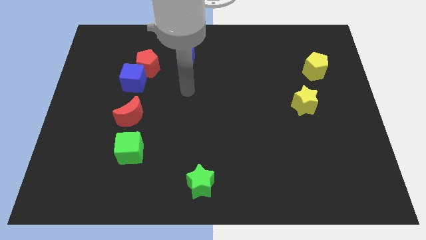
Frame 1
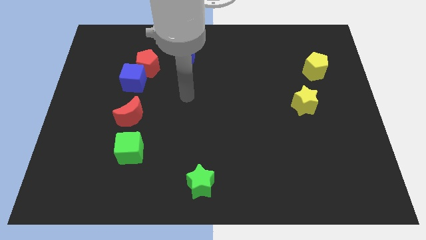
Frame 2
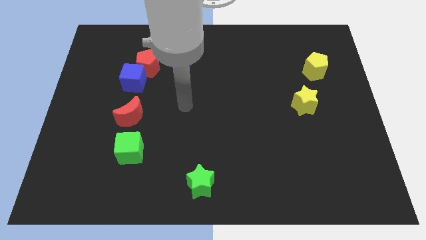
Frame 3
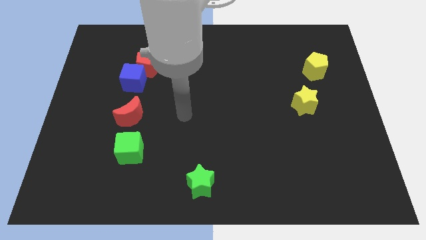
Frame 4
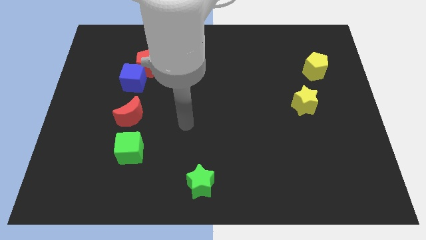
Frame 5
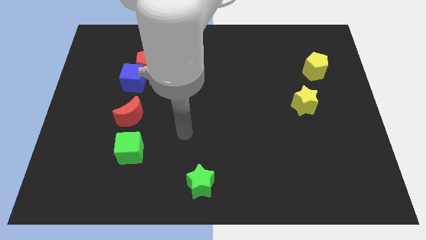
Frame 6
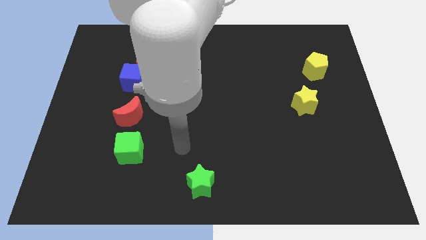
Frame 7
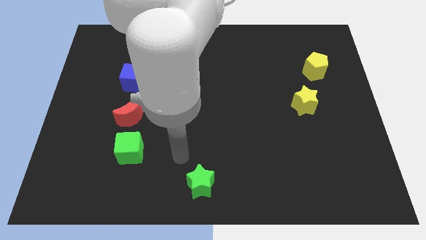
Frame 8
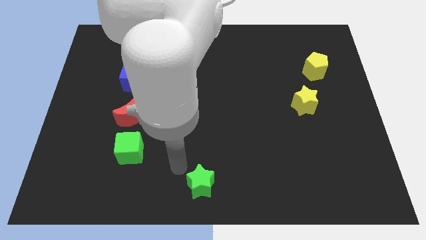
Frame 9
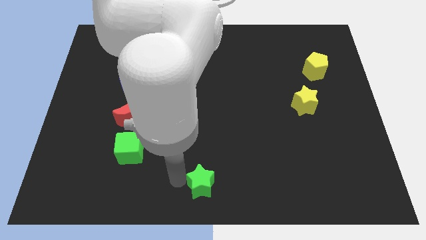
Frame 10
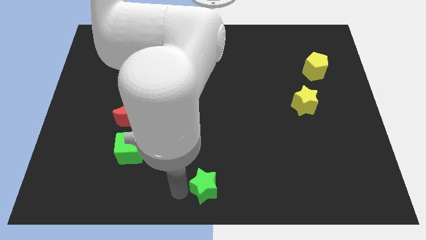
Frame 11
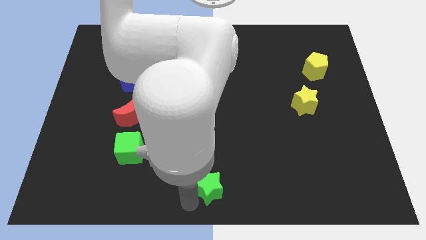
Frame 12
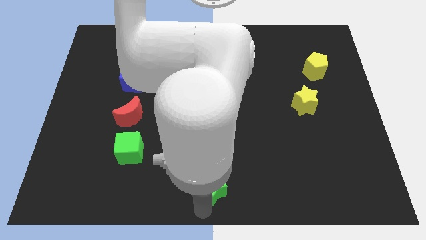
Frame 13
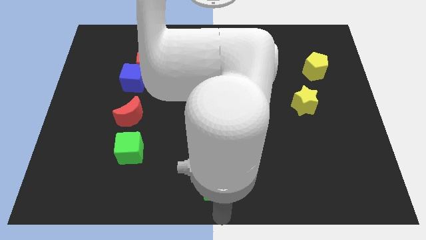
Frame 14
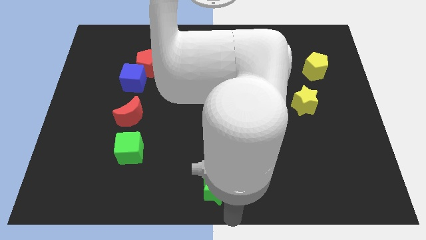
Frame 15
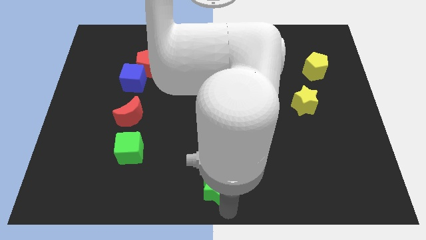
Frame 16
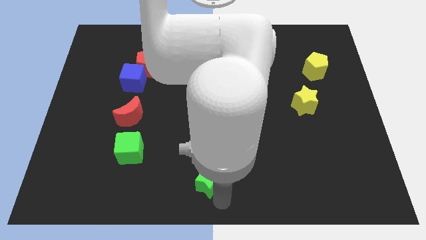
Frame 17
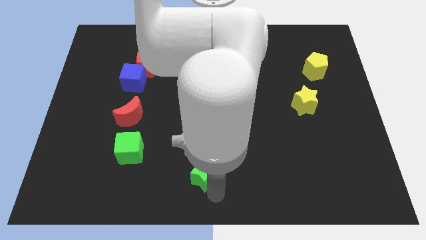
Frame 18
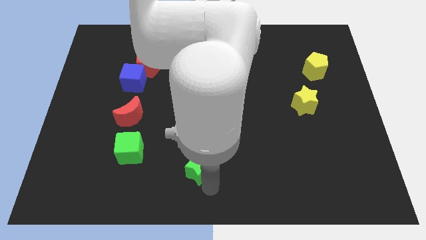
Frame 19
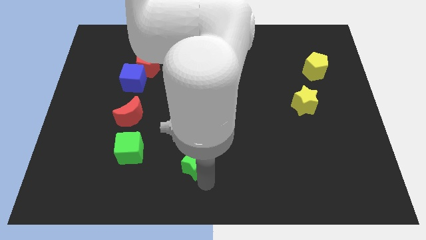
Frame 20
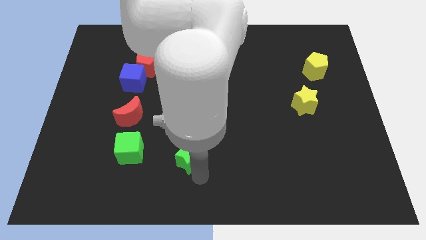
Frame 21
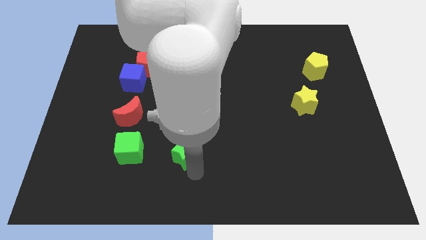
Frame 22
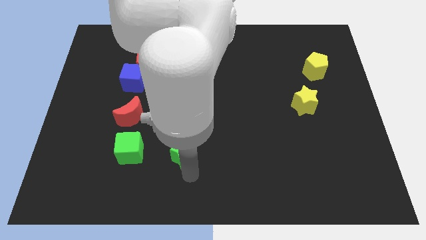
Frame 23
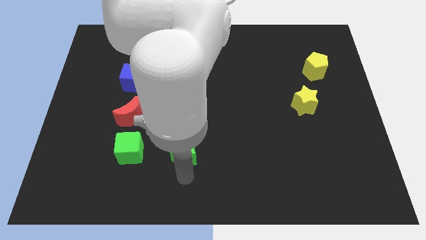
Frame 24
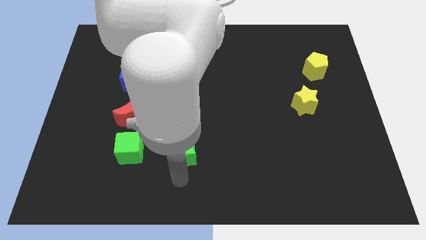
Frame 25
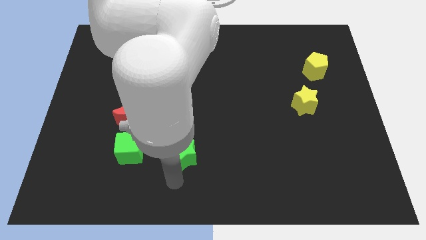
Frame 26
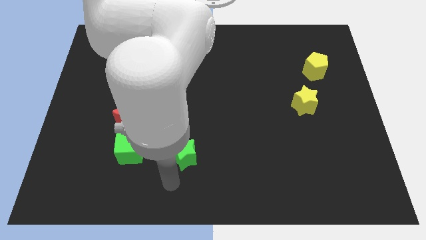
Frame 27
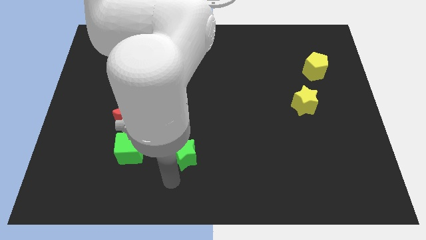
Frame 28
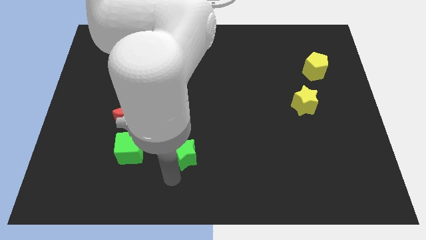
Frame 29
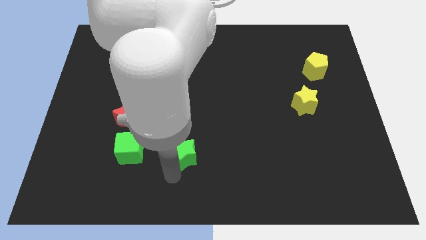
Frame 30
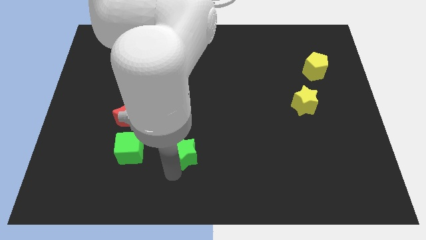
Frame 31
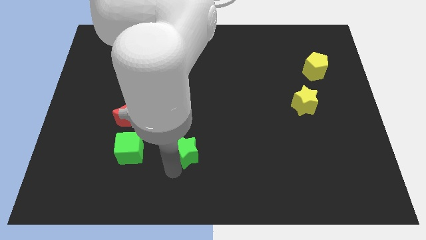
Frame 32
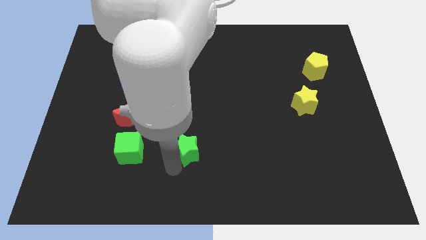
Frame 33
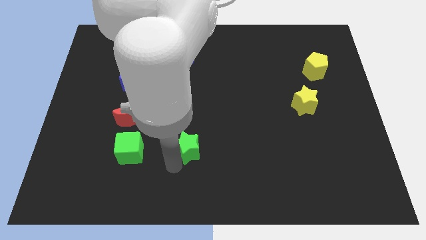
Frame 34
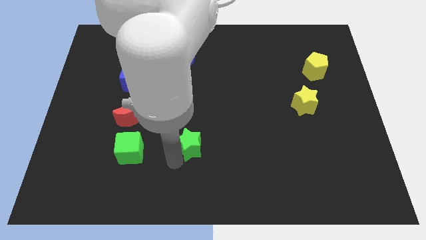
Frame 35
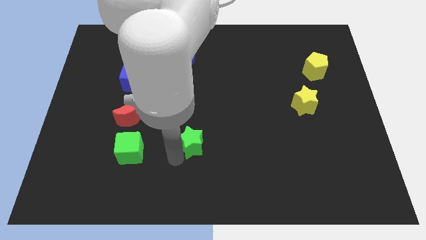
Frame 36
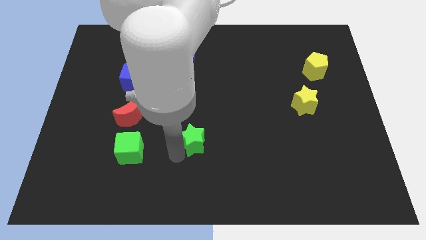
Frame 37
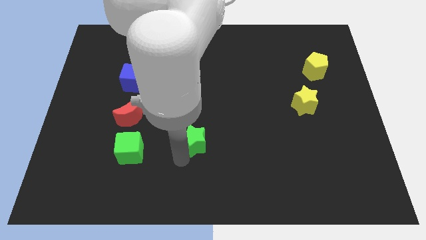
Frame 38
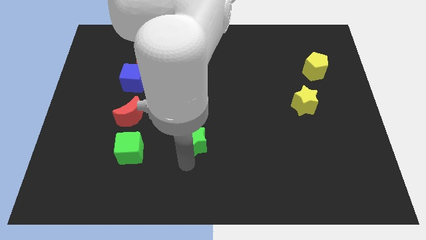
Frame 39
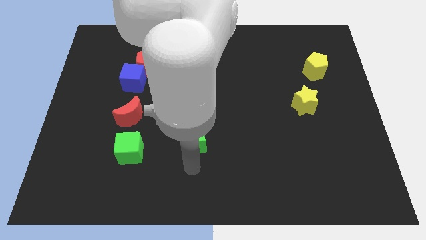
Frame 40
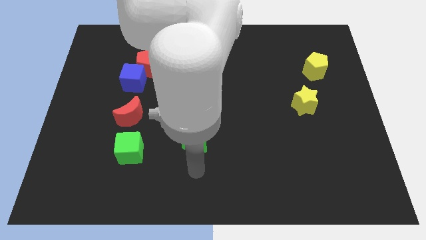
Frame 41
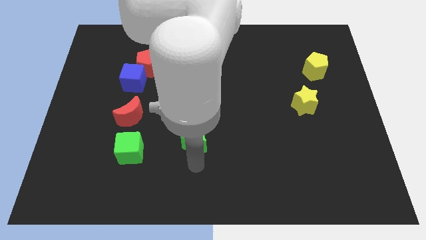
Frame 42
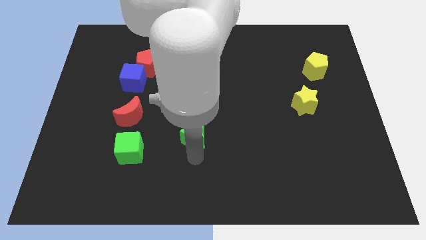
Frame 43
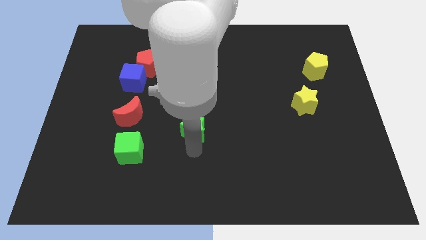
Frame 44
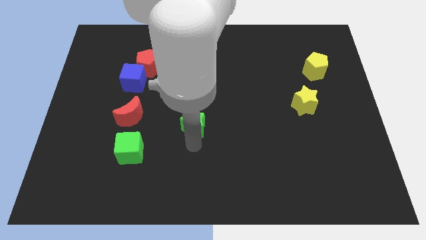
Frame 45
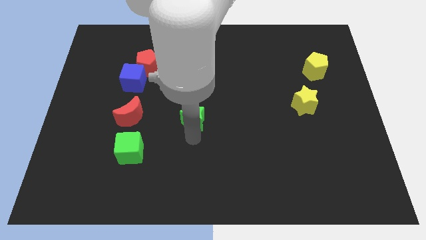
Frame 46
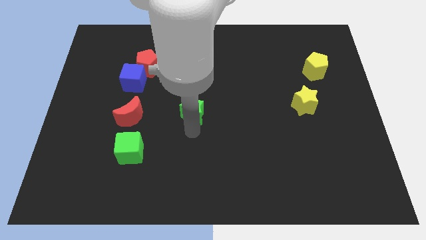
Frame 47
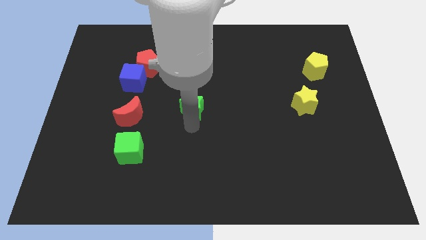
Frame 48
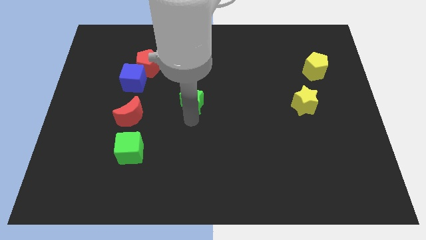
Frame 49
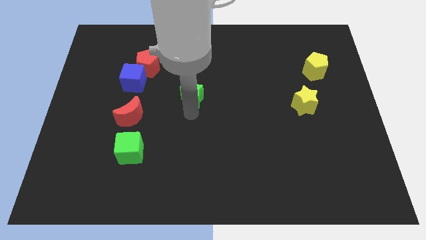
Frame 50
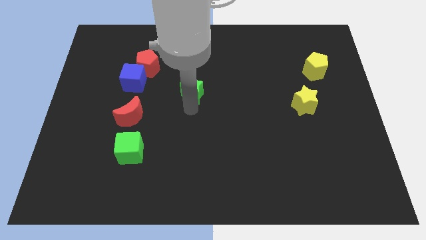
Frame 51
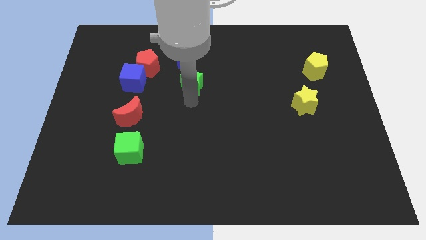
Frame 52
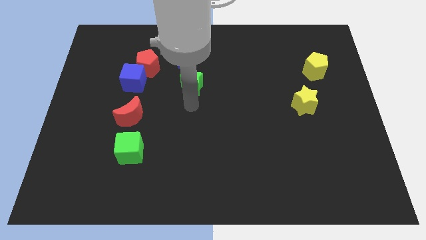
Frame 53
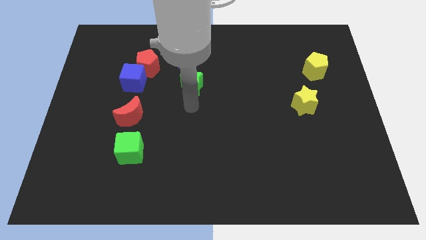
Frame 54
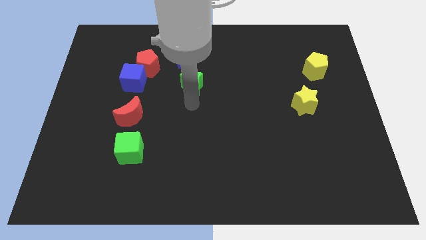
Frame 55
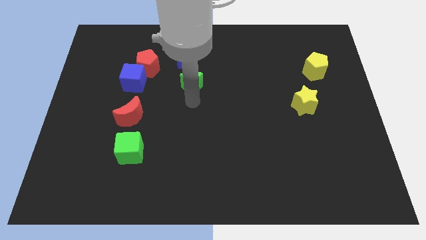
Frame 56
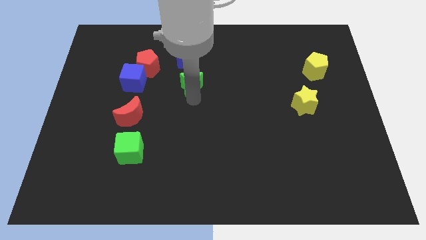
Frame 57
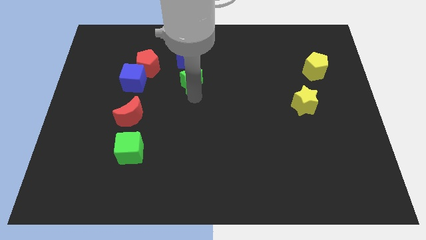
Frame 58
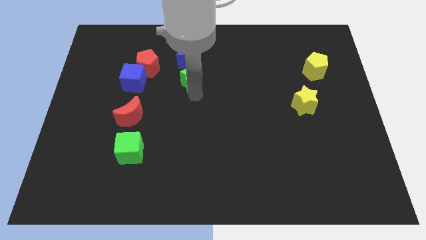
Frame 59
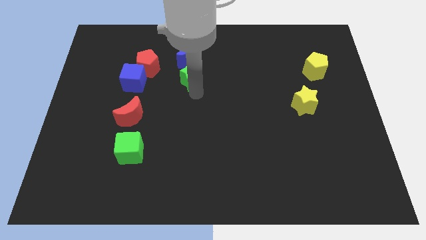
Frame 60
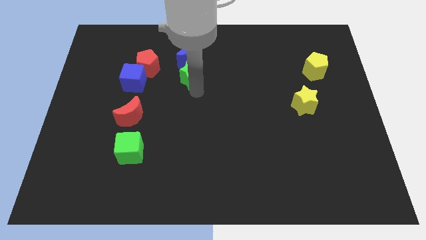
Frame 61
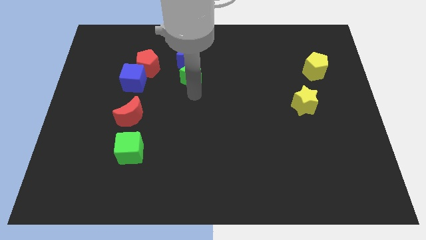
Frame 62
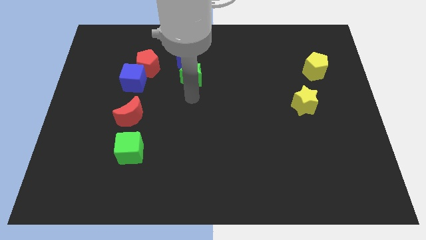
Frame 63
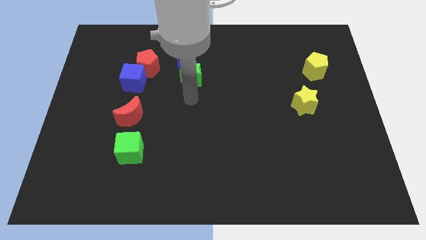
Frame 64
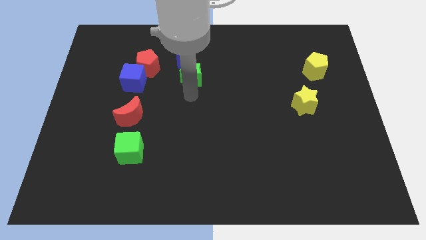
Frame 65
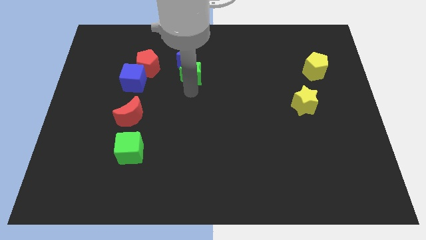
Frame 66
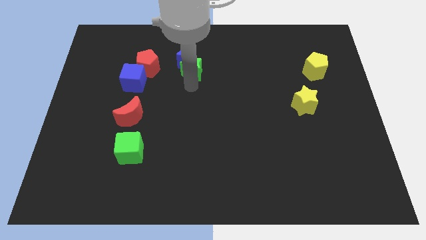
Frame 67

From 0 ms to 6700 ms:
push the green star next to the blue moon

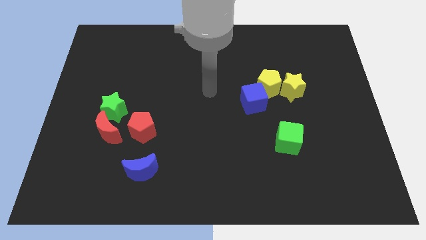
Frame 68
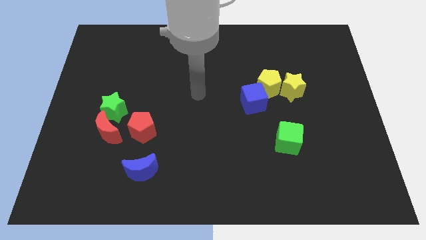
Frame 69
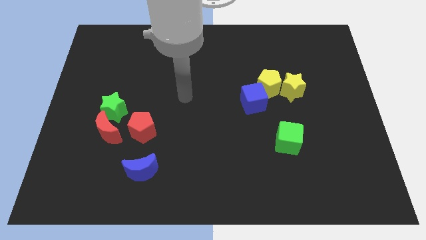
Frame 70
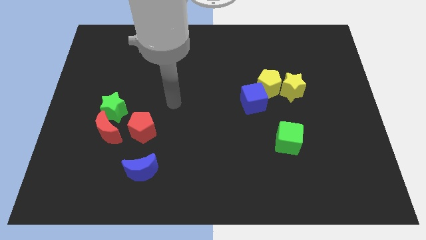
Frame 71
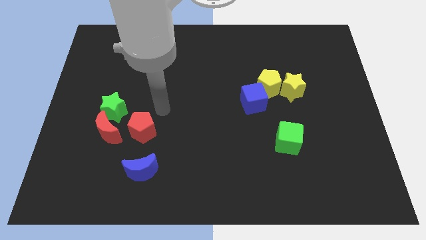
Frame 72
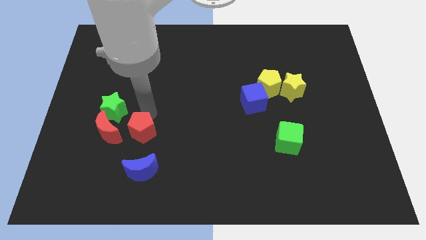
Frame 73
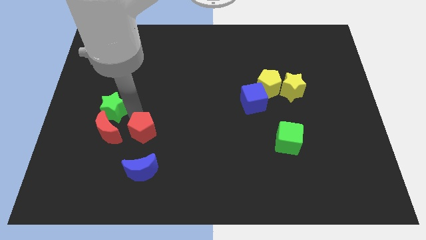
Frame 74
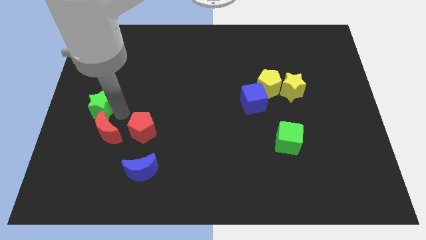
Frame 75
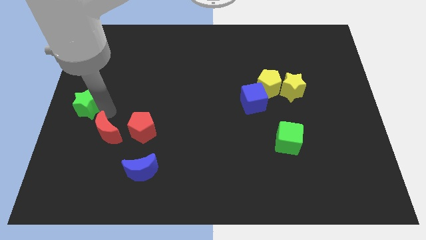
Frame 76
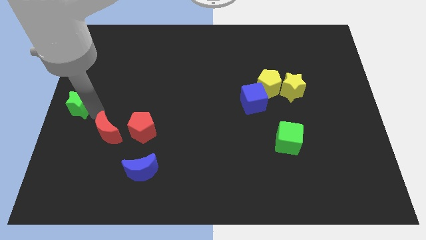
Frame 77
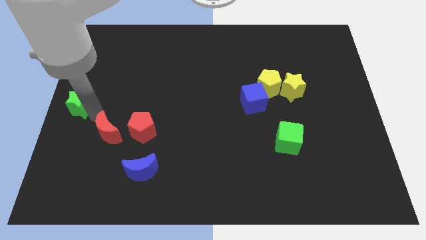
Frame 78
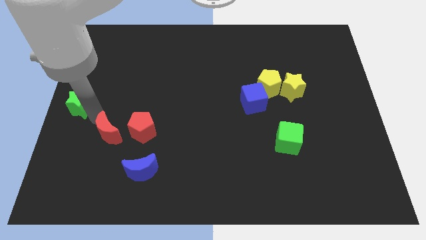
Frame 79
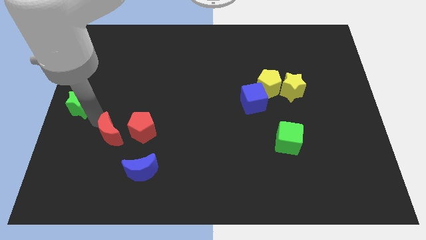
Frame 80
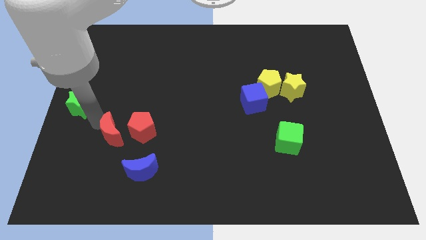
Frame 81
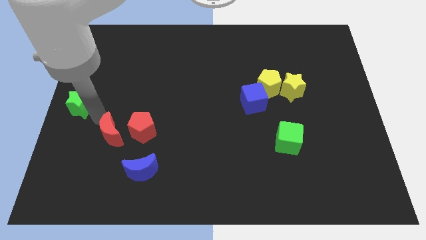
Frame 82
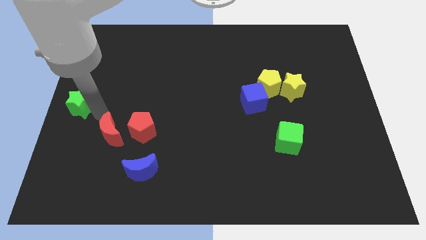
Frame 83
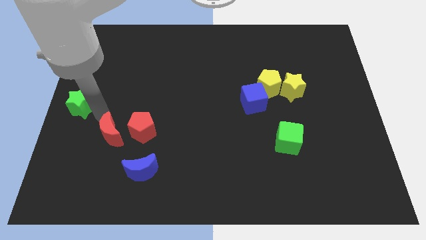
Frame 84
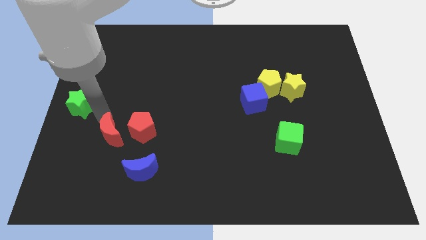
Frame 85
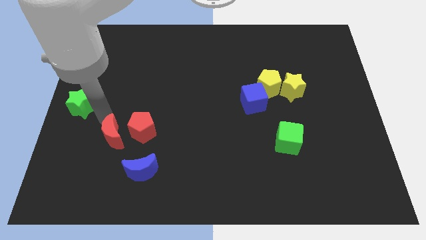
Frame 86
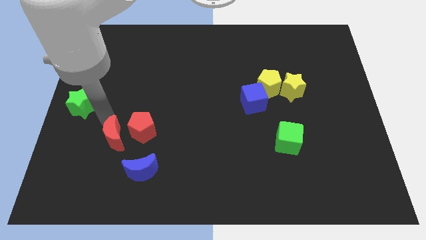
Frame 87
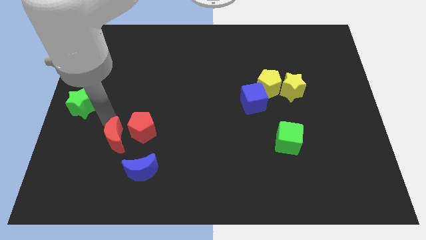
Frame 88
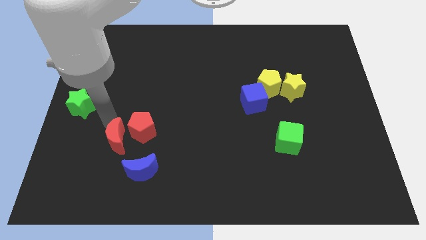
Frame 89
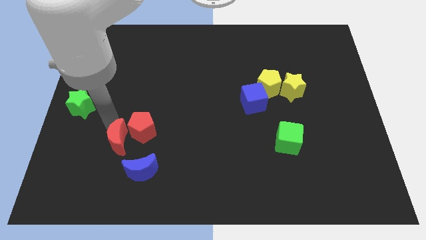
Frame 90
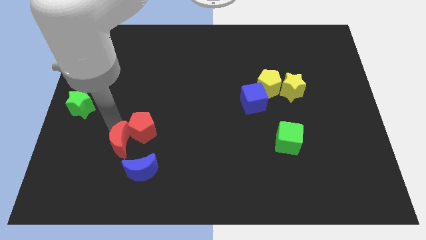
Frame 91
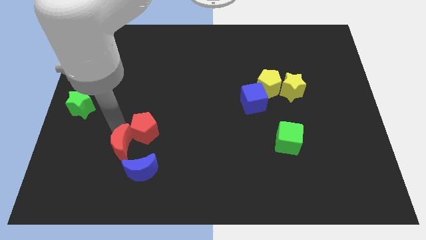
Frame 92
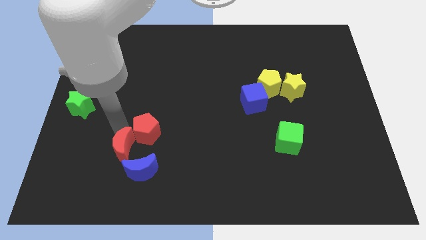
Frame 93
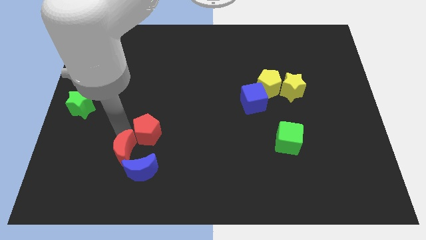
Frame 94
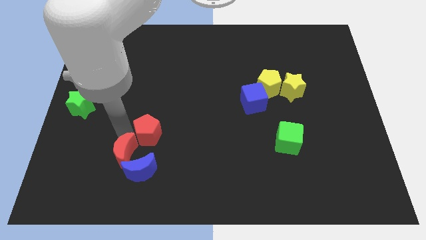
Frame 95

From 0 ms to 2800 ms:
move the red moon close to the blue moon
